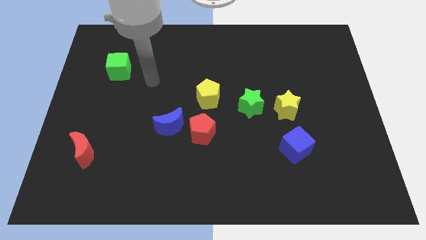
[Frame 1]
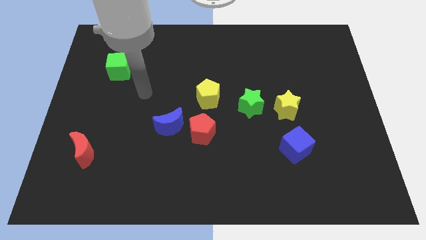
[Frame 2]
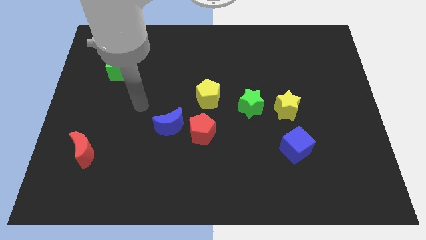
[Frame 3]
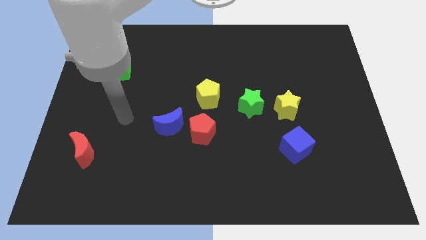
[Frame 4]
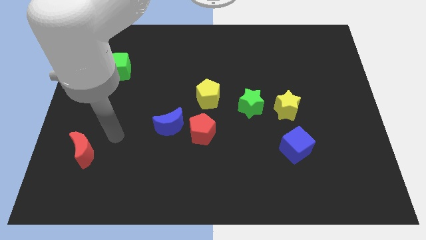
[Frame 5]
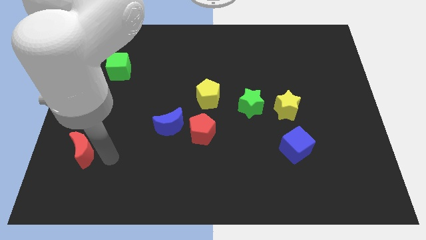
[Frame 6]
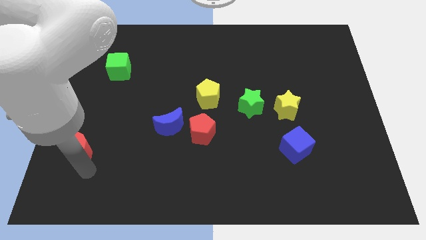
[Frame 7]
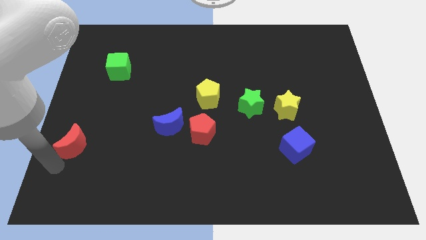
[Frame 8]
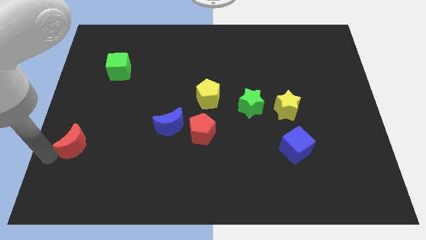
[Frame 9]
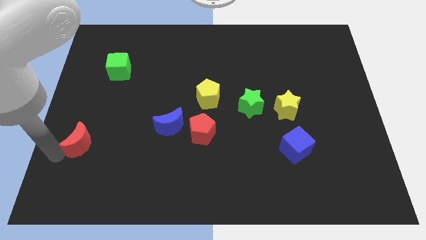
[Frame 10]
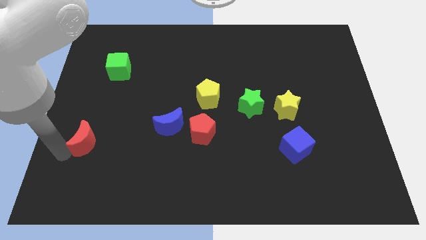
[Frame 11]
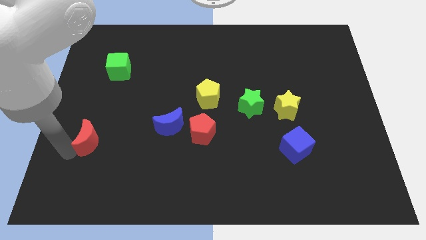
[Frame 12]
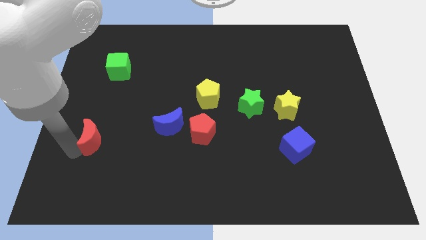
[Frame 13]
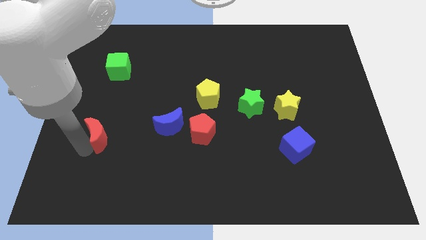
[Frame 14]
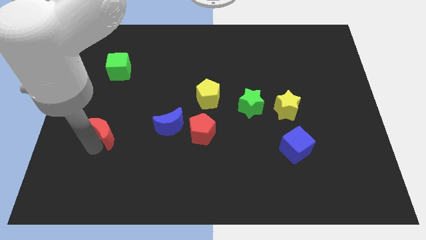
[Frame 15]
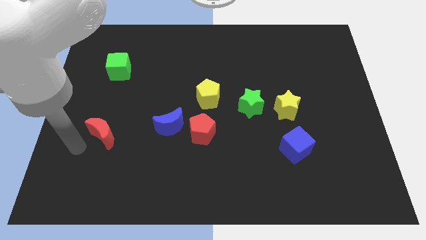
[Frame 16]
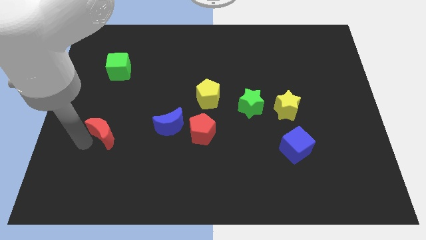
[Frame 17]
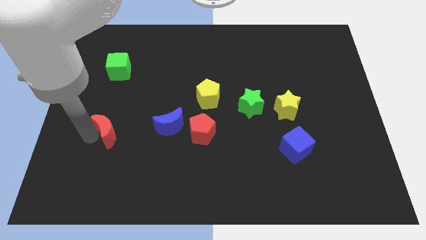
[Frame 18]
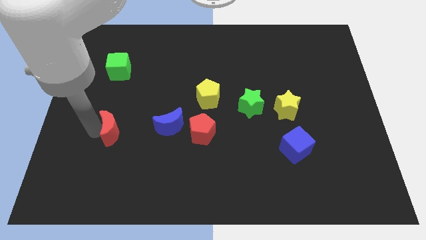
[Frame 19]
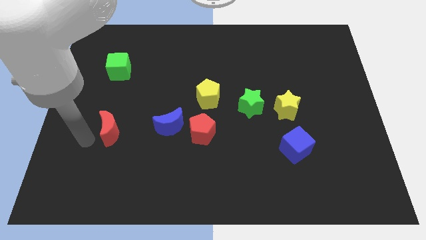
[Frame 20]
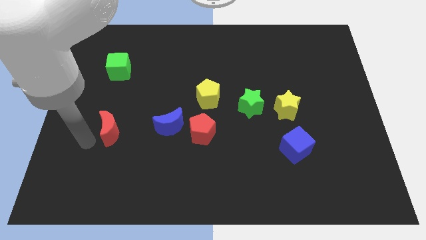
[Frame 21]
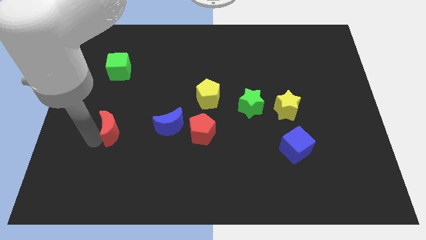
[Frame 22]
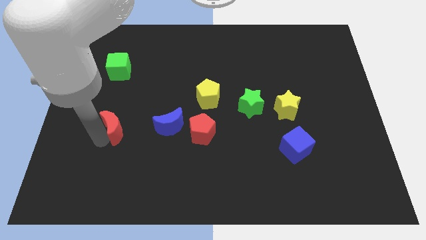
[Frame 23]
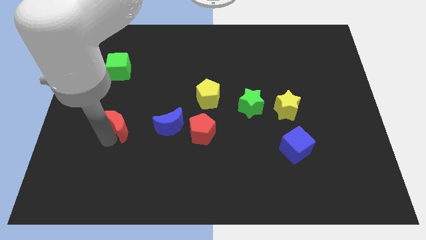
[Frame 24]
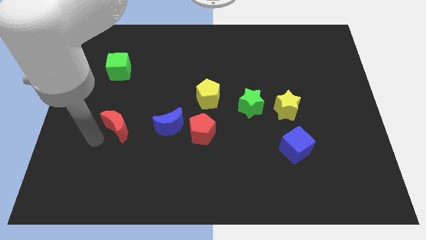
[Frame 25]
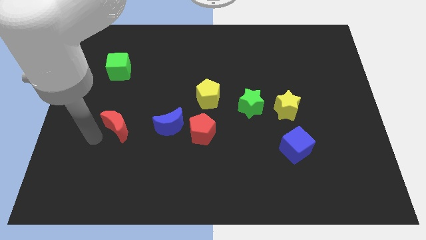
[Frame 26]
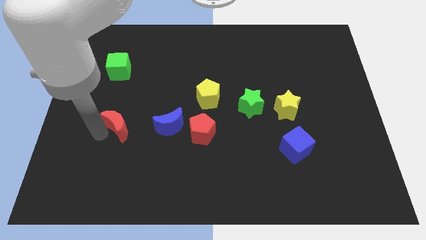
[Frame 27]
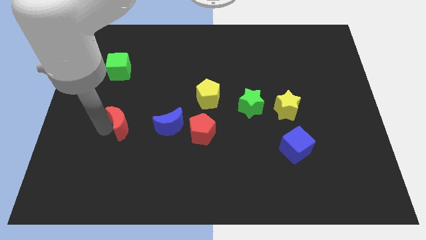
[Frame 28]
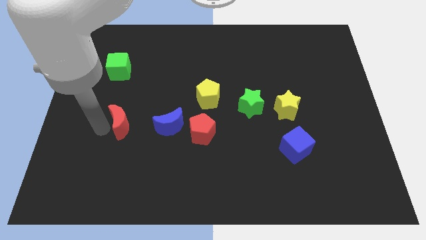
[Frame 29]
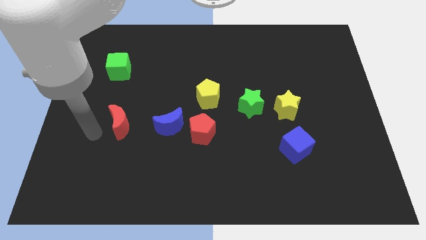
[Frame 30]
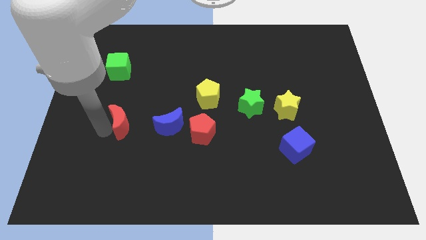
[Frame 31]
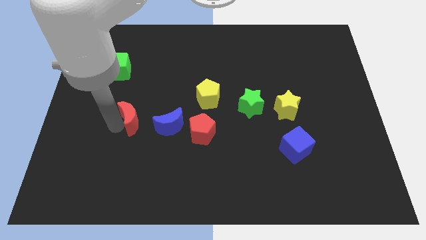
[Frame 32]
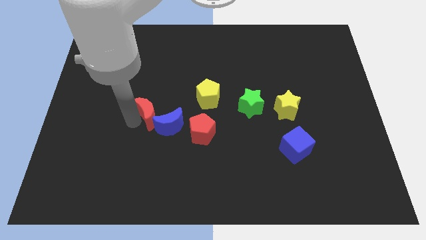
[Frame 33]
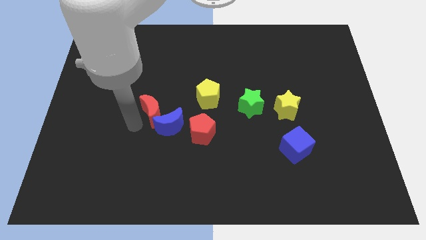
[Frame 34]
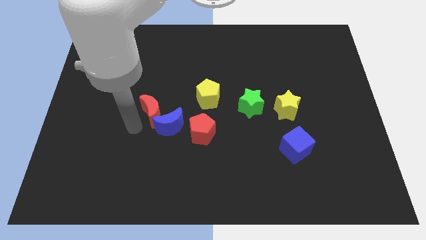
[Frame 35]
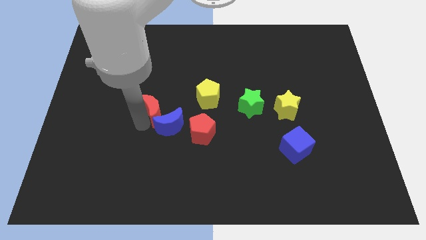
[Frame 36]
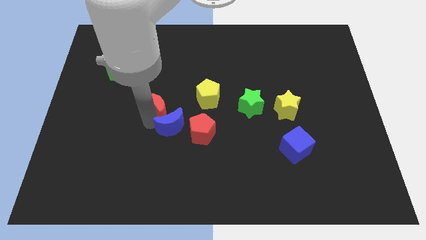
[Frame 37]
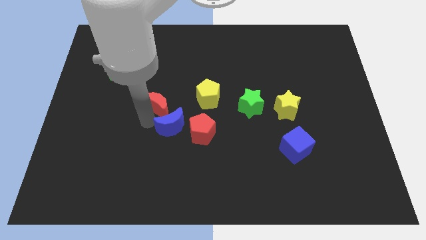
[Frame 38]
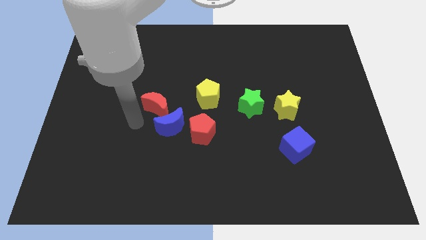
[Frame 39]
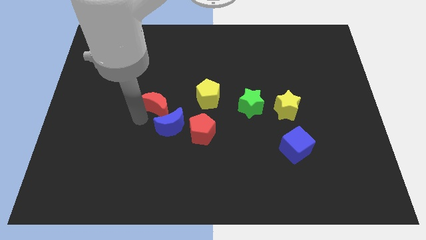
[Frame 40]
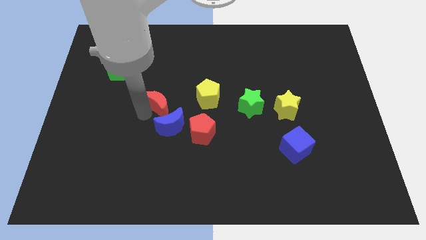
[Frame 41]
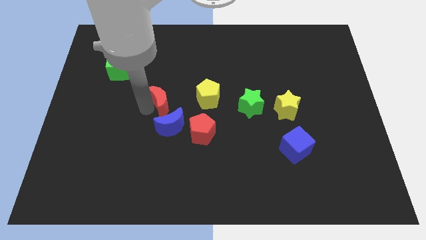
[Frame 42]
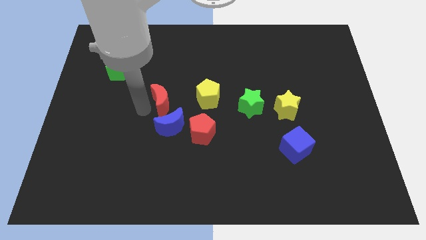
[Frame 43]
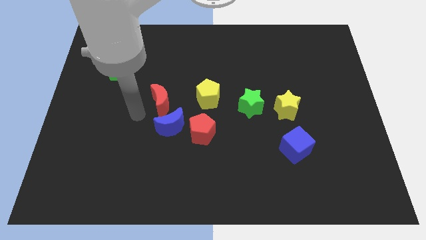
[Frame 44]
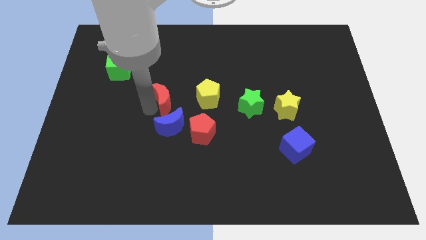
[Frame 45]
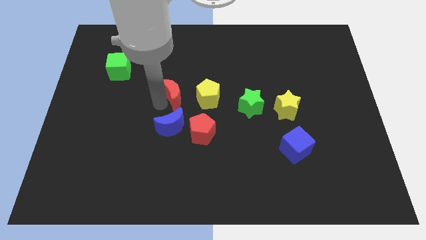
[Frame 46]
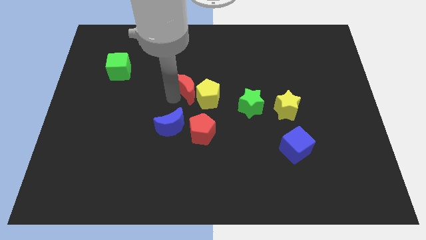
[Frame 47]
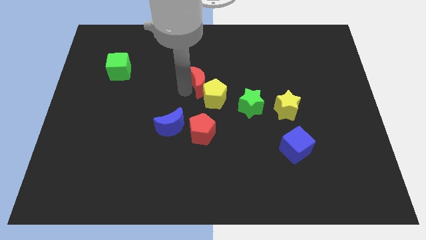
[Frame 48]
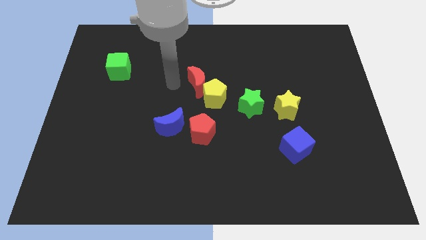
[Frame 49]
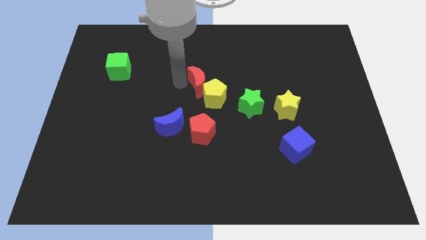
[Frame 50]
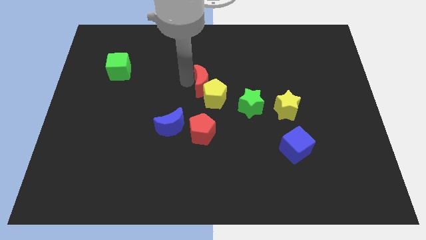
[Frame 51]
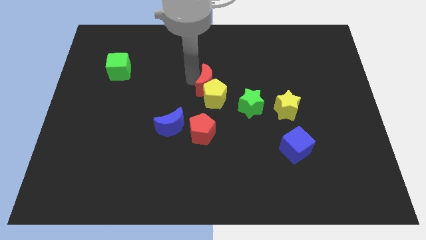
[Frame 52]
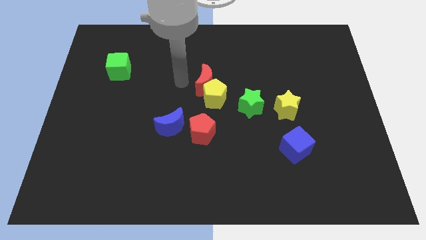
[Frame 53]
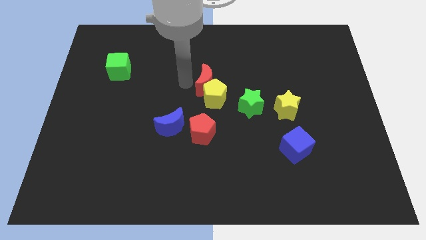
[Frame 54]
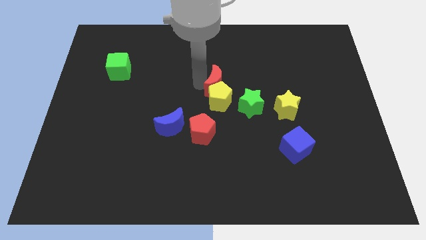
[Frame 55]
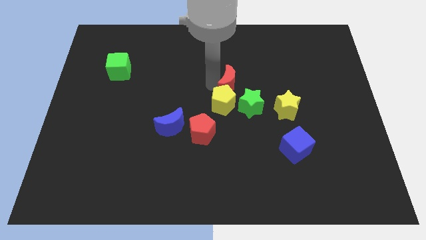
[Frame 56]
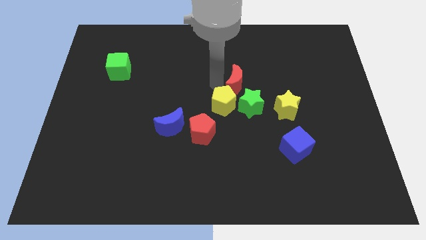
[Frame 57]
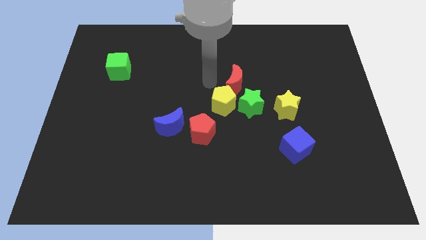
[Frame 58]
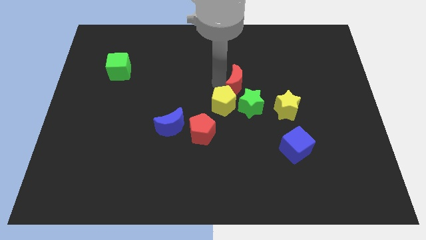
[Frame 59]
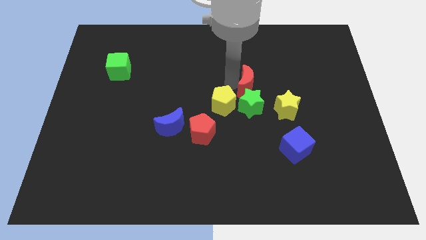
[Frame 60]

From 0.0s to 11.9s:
move the red moon diagonally up and to the left of the yellow star

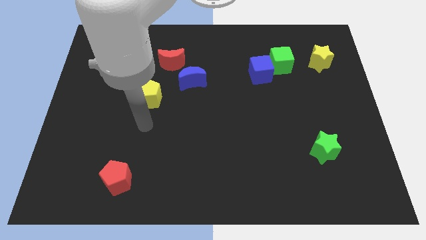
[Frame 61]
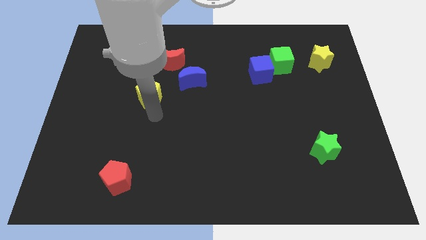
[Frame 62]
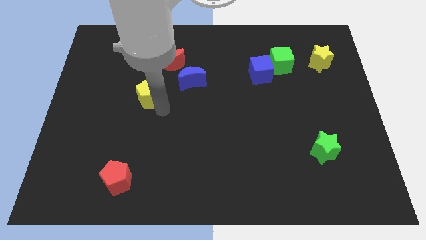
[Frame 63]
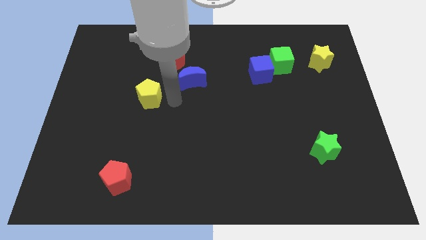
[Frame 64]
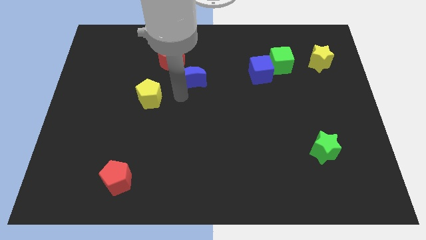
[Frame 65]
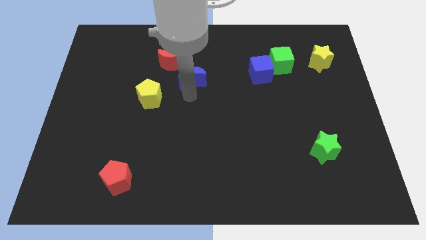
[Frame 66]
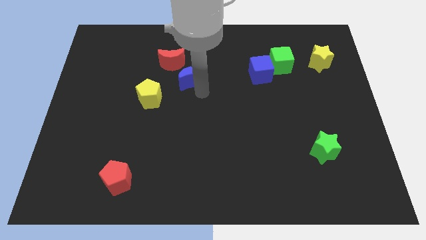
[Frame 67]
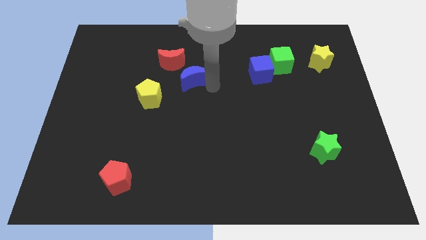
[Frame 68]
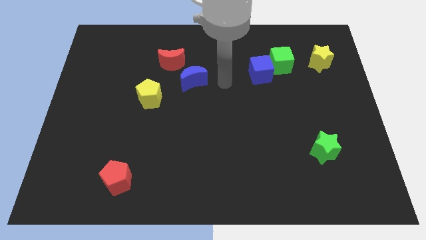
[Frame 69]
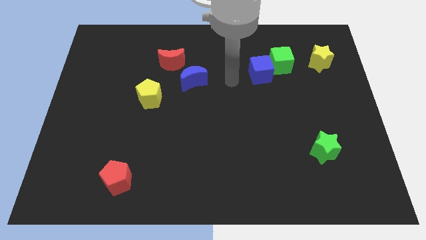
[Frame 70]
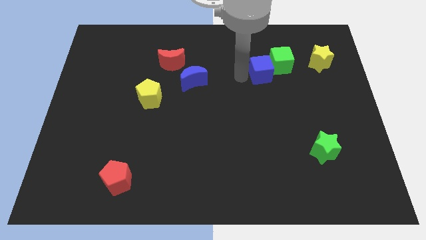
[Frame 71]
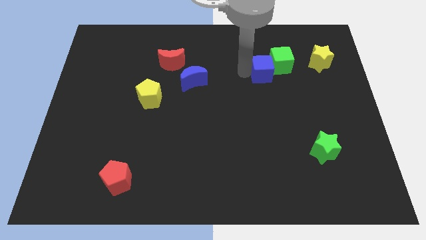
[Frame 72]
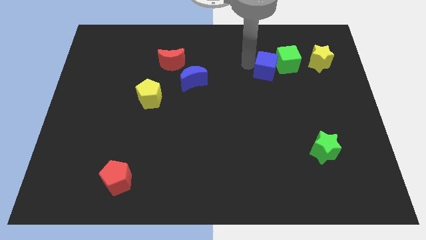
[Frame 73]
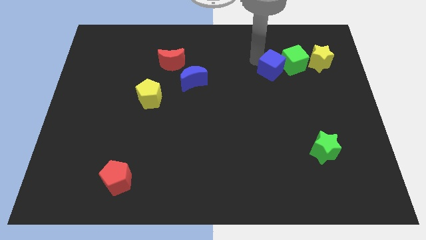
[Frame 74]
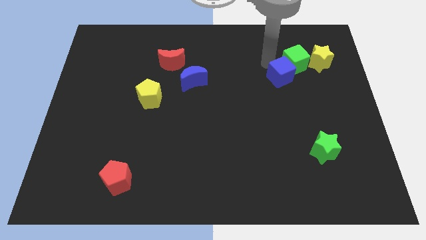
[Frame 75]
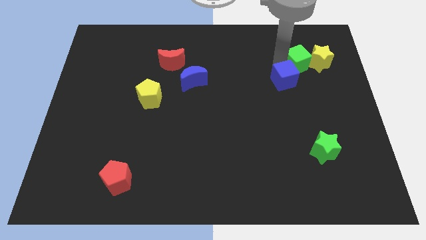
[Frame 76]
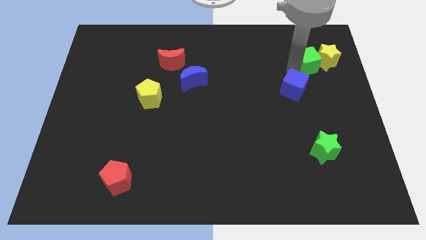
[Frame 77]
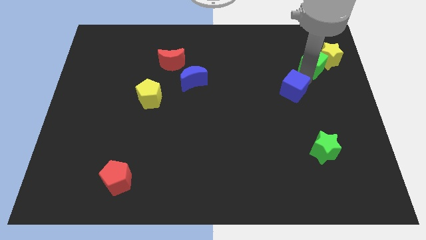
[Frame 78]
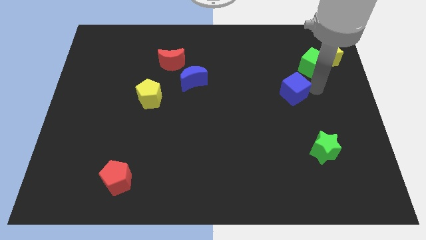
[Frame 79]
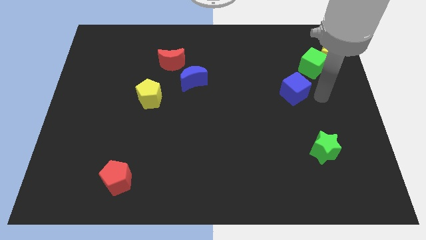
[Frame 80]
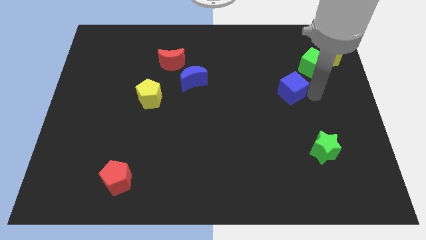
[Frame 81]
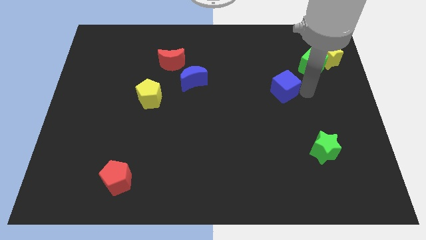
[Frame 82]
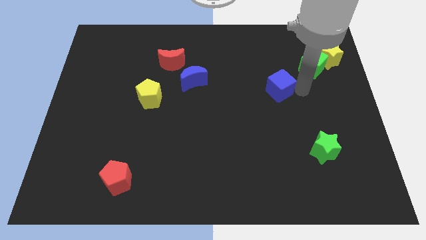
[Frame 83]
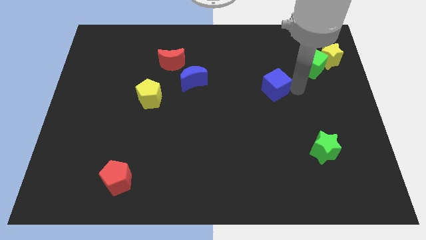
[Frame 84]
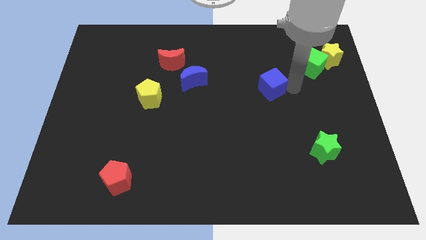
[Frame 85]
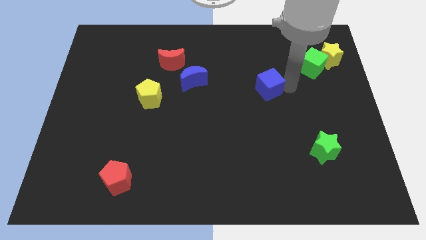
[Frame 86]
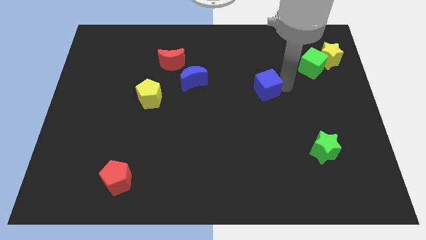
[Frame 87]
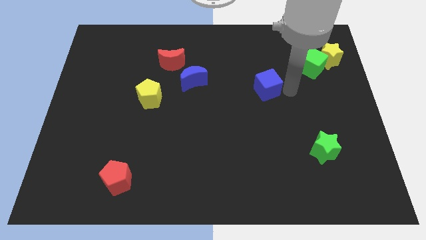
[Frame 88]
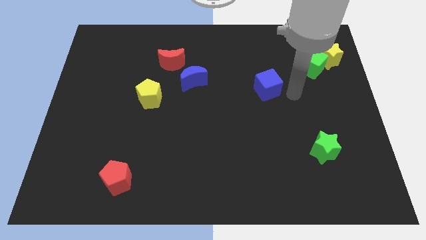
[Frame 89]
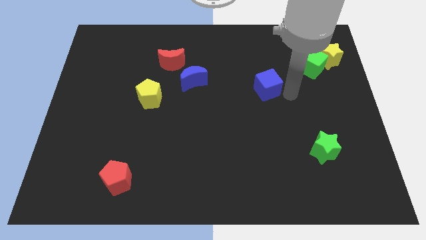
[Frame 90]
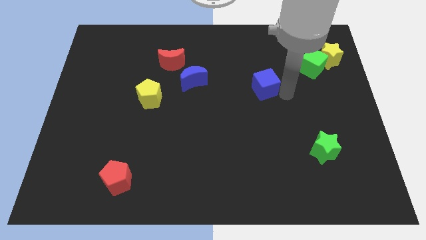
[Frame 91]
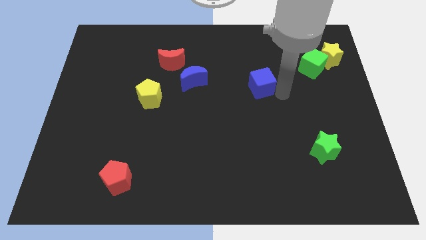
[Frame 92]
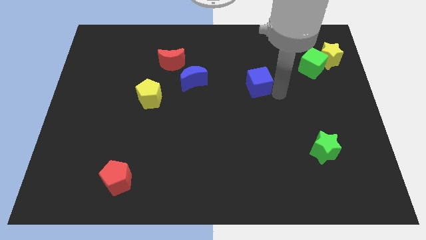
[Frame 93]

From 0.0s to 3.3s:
put the blue cube to the right side of the blue moon
